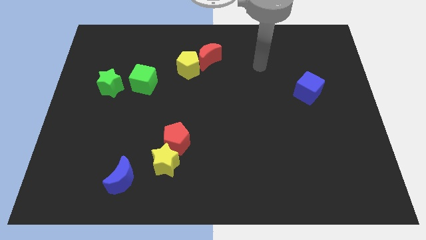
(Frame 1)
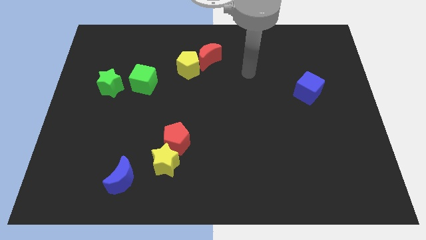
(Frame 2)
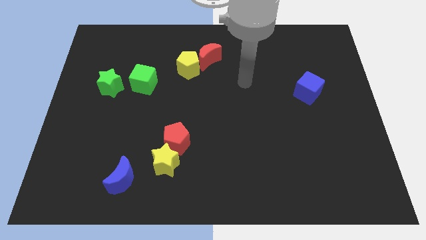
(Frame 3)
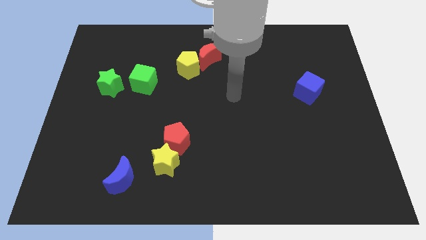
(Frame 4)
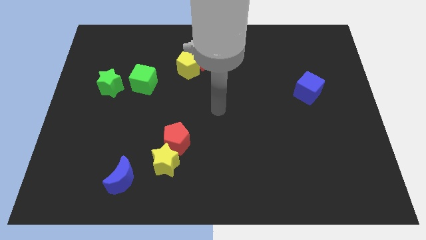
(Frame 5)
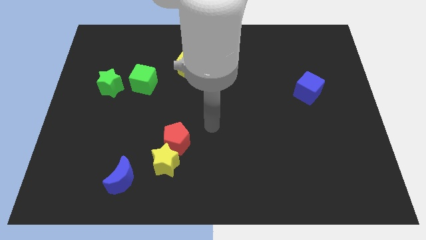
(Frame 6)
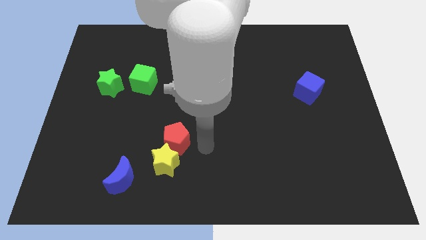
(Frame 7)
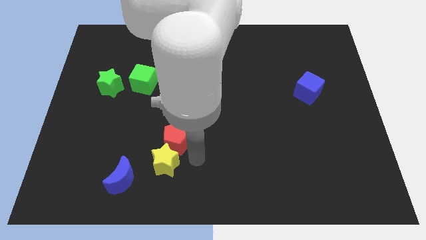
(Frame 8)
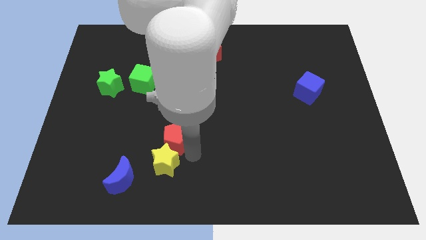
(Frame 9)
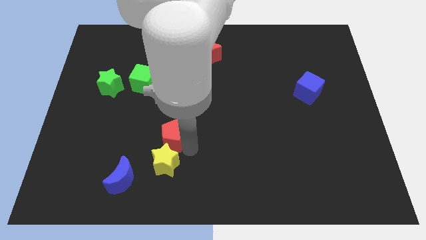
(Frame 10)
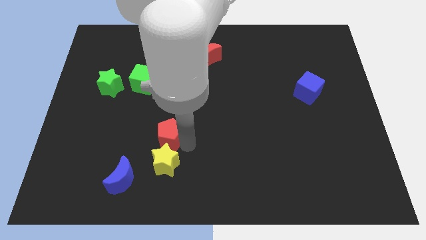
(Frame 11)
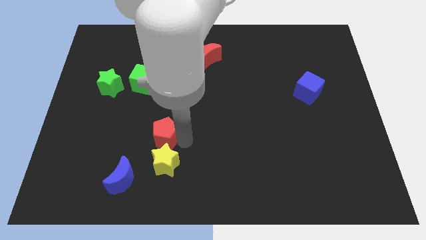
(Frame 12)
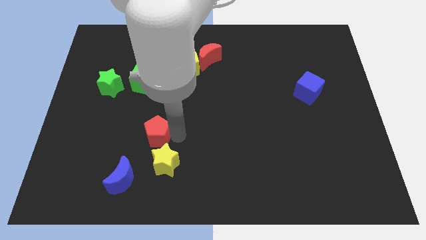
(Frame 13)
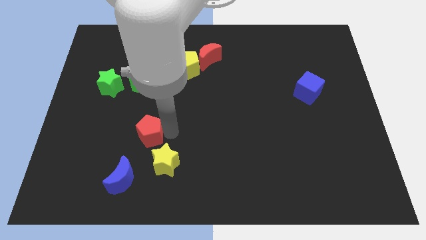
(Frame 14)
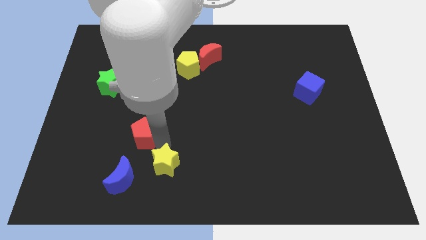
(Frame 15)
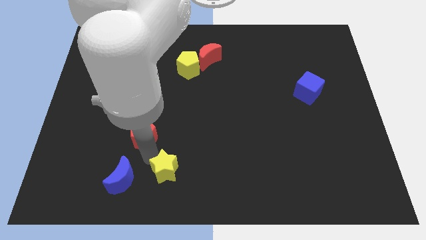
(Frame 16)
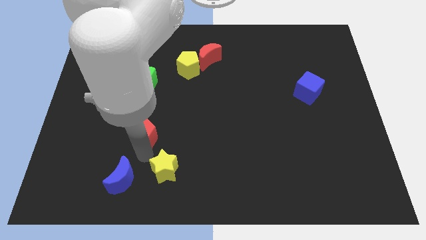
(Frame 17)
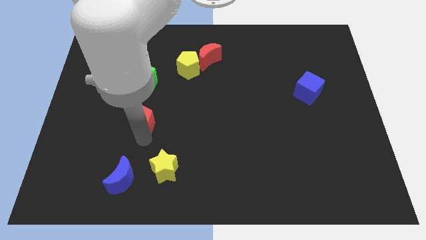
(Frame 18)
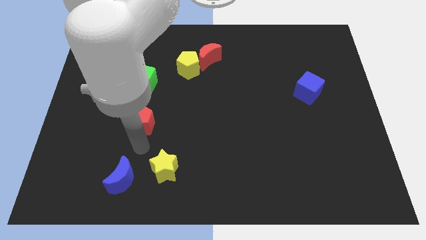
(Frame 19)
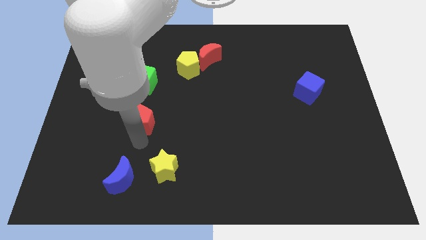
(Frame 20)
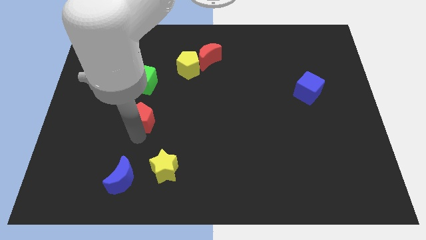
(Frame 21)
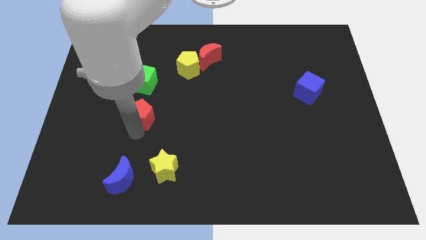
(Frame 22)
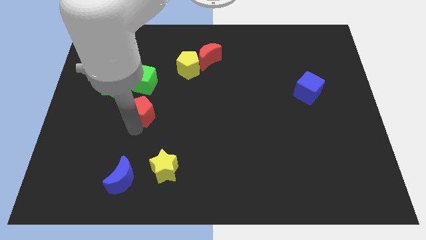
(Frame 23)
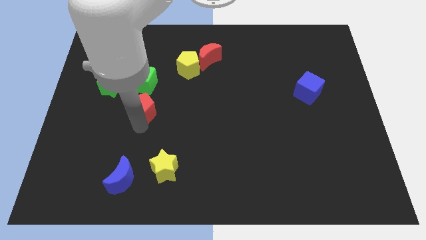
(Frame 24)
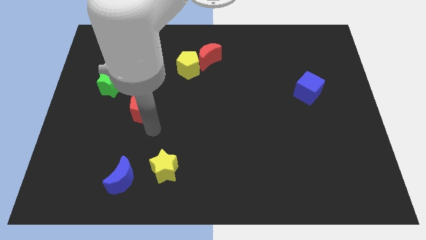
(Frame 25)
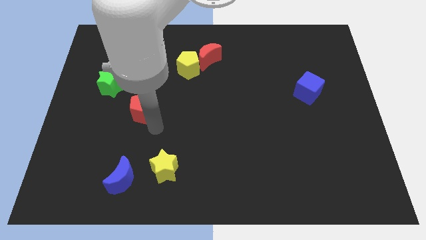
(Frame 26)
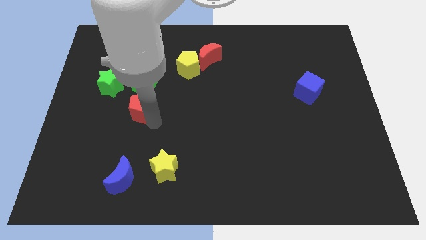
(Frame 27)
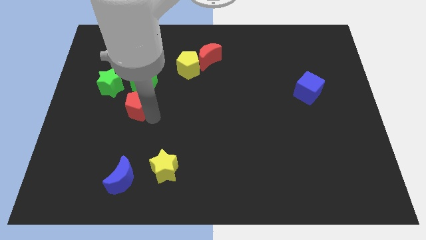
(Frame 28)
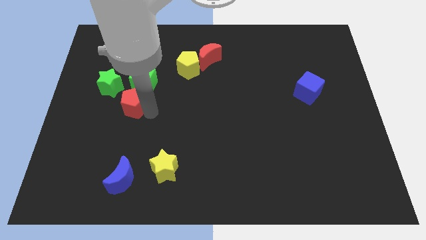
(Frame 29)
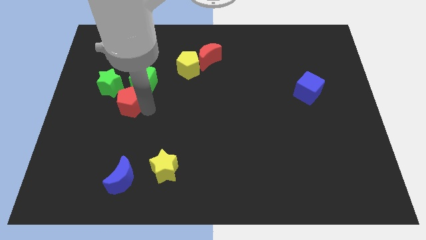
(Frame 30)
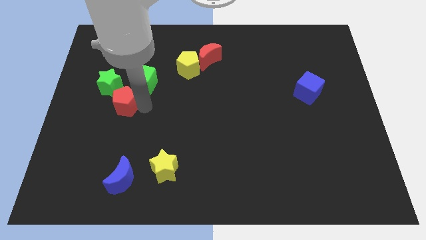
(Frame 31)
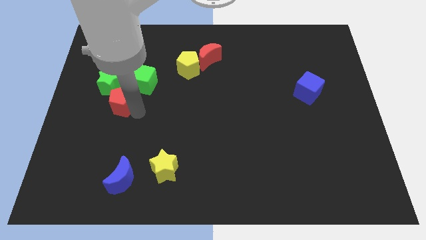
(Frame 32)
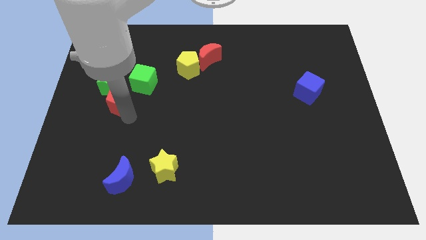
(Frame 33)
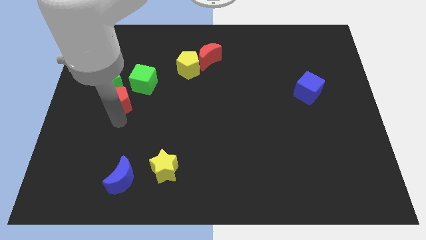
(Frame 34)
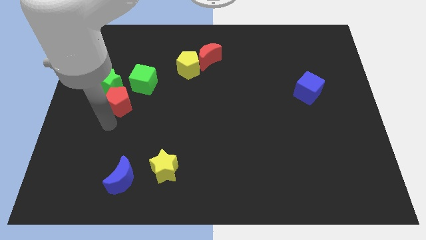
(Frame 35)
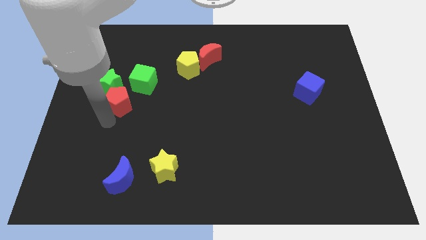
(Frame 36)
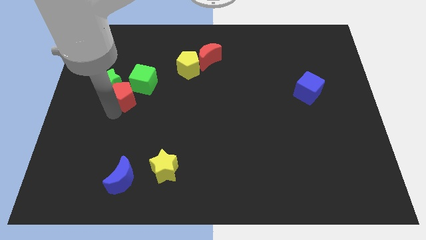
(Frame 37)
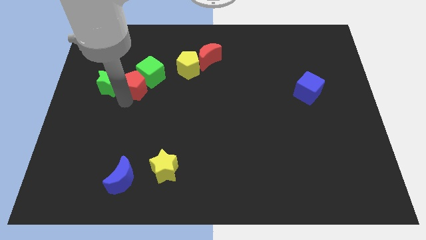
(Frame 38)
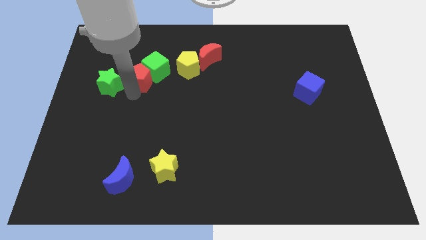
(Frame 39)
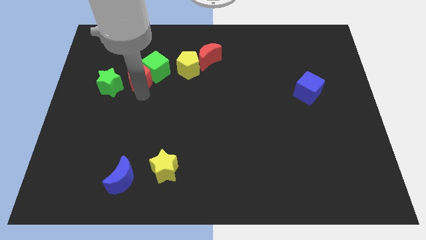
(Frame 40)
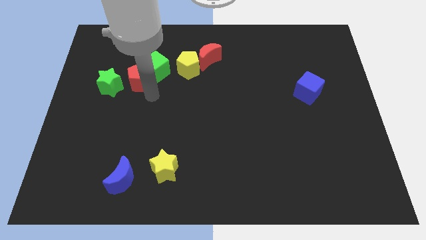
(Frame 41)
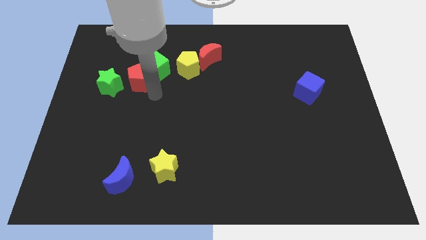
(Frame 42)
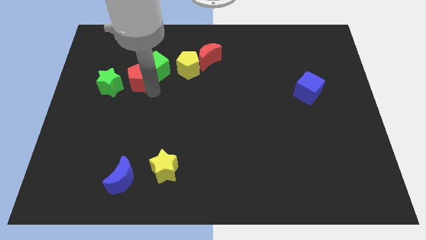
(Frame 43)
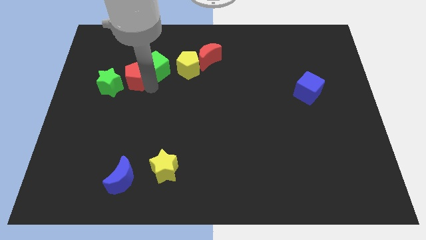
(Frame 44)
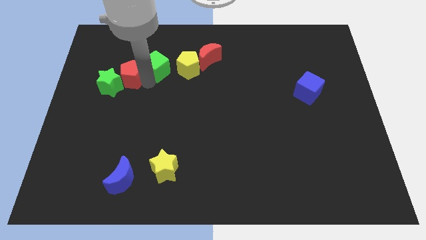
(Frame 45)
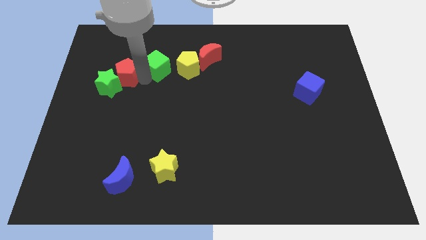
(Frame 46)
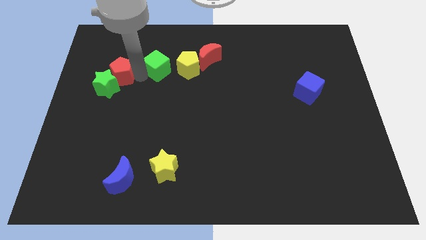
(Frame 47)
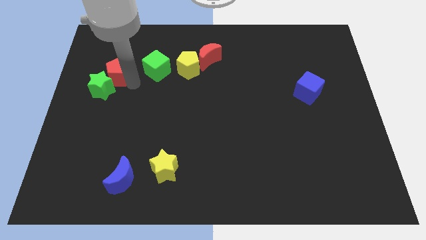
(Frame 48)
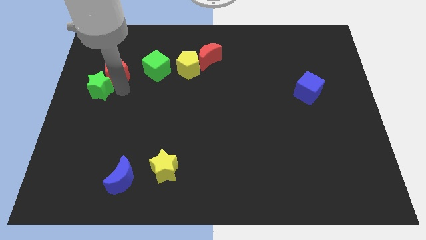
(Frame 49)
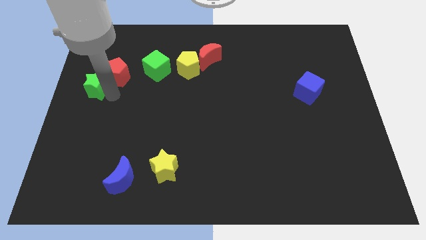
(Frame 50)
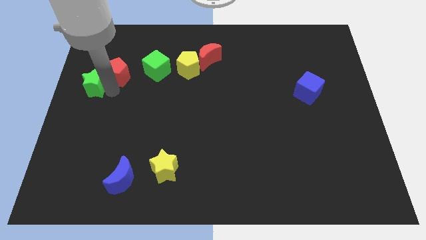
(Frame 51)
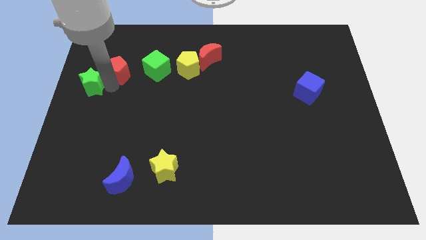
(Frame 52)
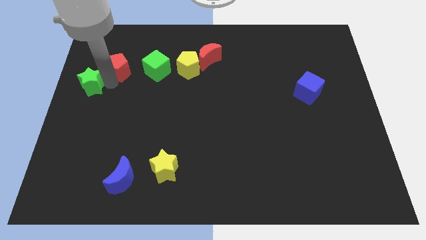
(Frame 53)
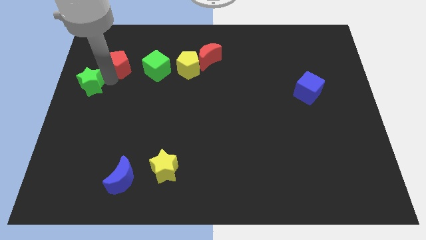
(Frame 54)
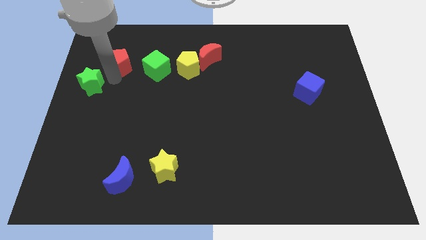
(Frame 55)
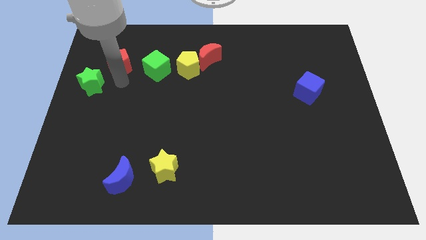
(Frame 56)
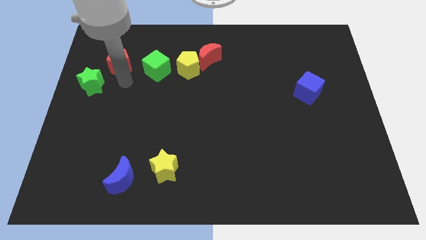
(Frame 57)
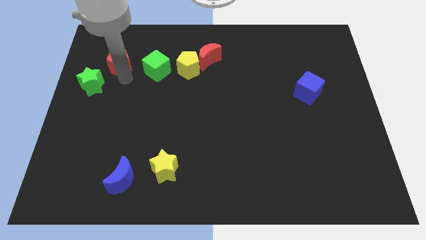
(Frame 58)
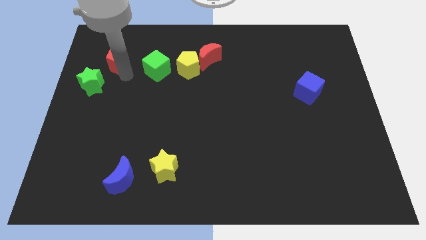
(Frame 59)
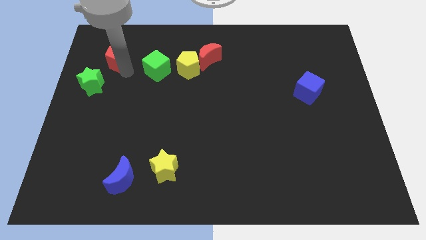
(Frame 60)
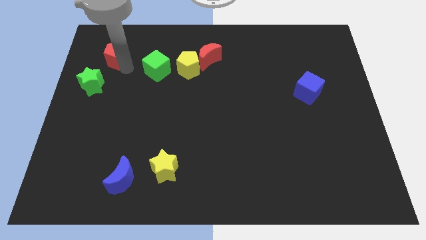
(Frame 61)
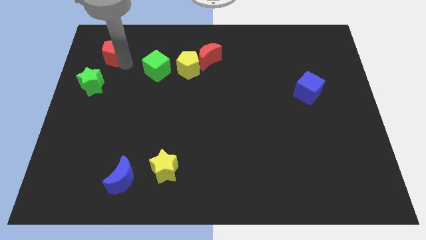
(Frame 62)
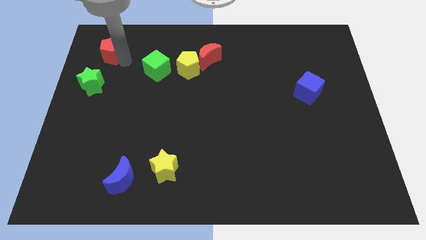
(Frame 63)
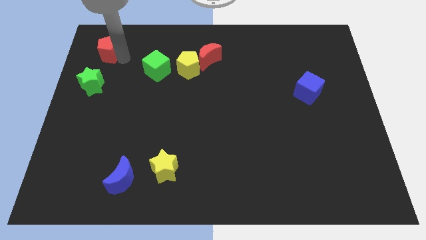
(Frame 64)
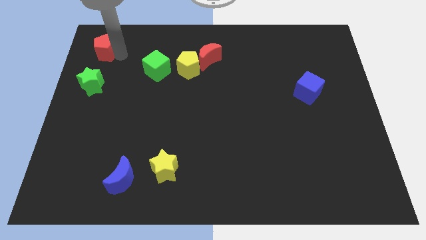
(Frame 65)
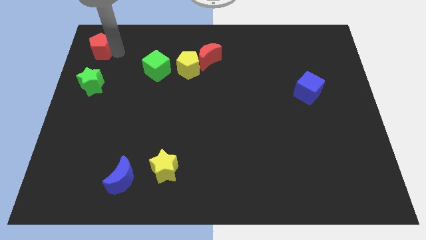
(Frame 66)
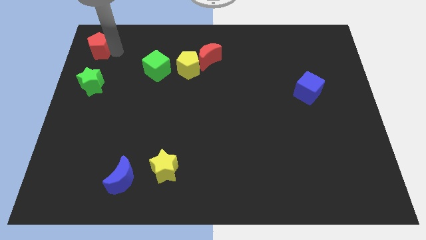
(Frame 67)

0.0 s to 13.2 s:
slide the red pentagon to the top left of the board
